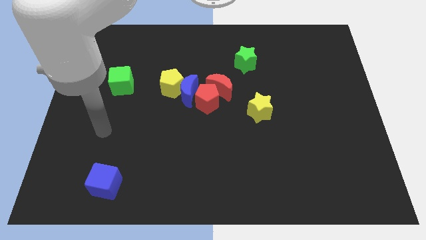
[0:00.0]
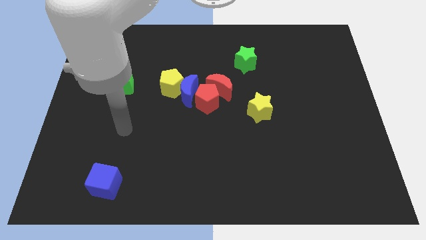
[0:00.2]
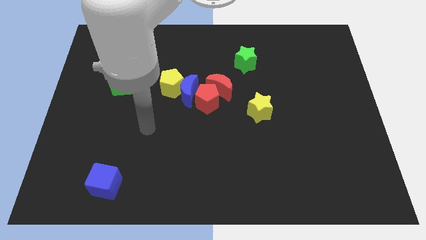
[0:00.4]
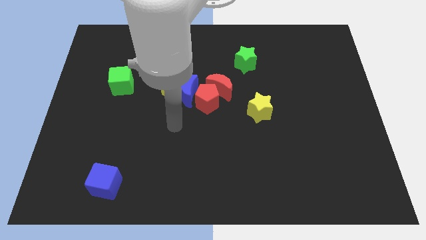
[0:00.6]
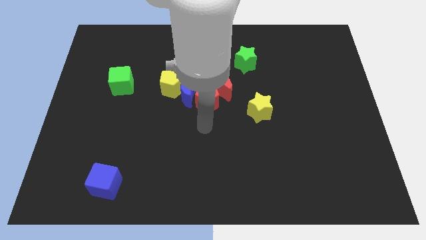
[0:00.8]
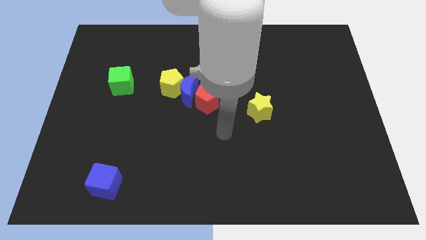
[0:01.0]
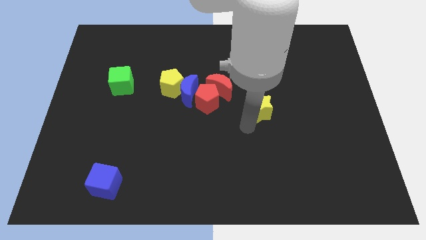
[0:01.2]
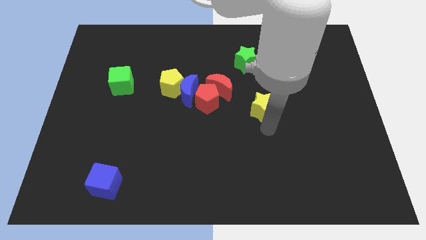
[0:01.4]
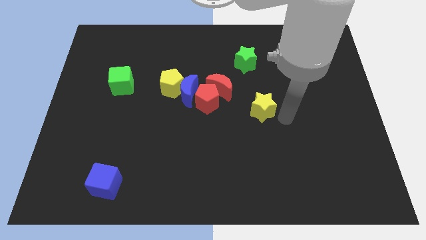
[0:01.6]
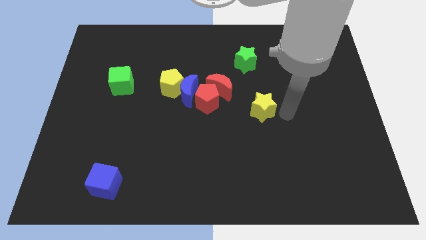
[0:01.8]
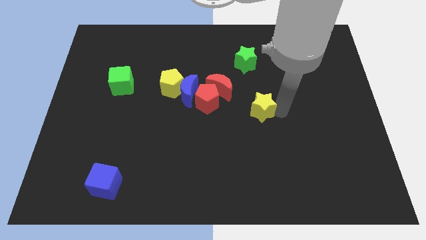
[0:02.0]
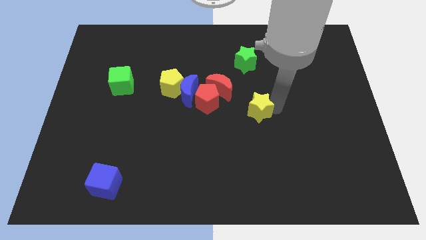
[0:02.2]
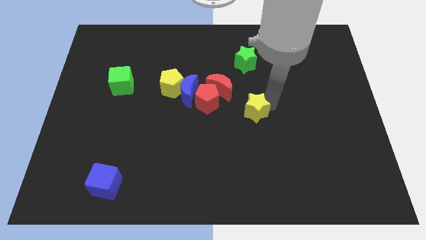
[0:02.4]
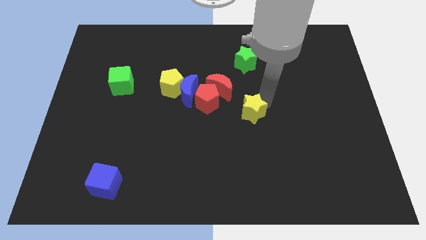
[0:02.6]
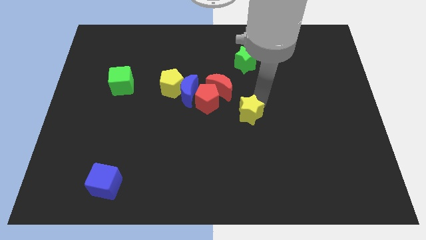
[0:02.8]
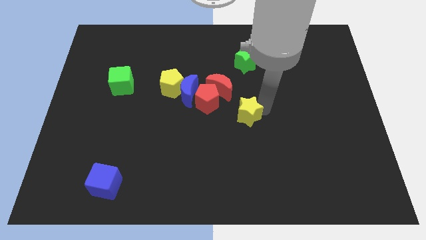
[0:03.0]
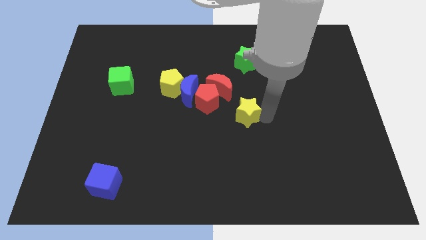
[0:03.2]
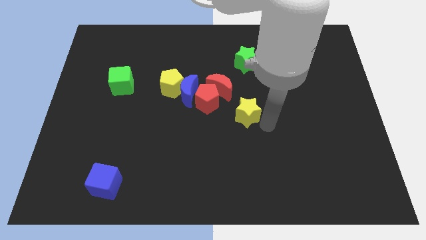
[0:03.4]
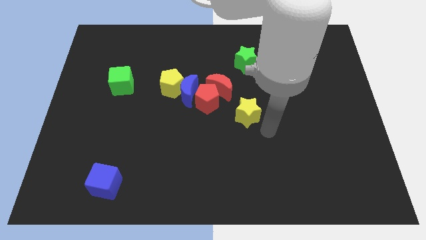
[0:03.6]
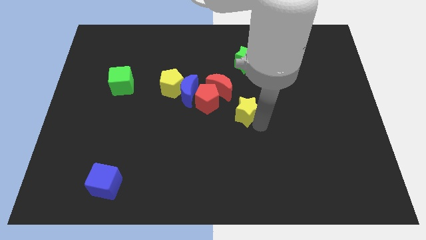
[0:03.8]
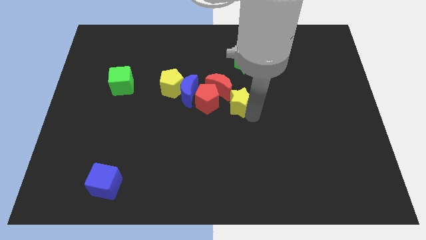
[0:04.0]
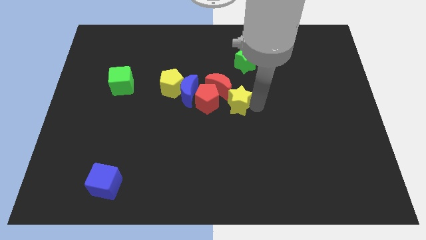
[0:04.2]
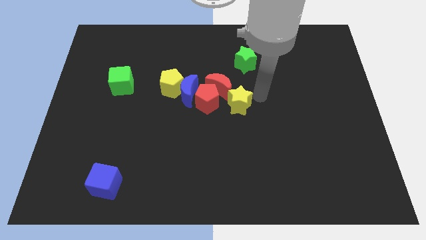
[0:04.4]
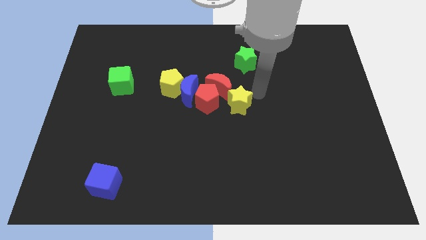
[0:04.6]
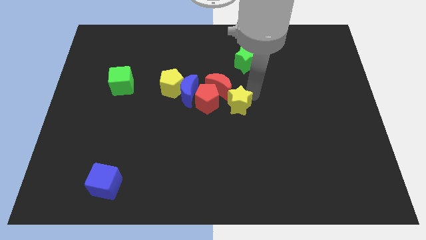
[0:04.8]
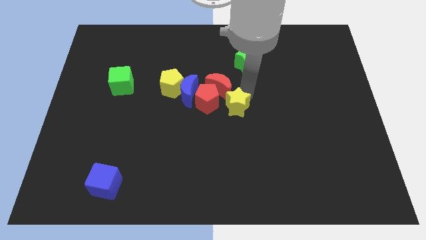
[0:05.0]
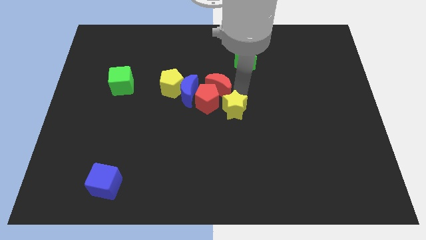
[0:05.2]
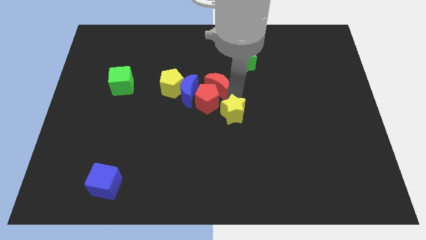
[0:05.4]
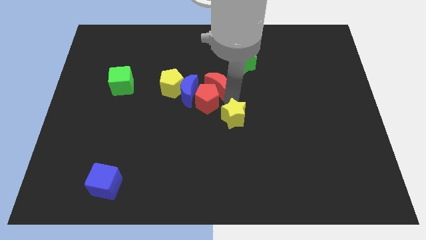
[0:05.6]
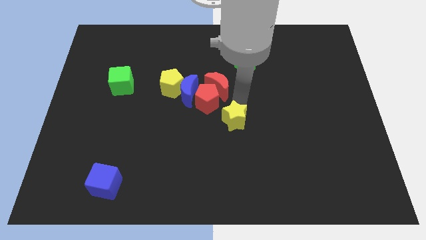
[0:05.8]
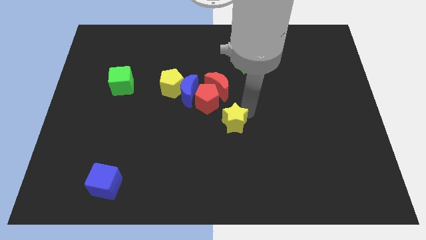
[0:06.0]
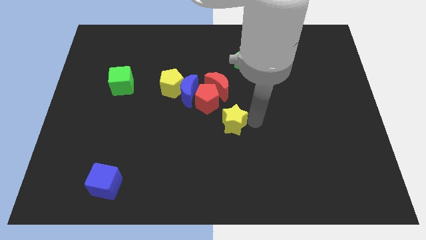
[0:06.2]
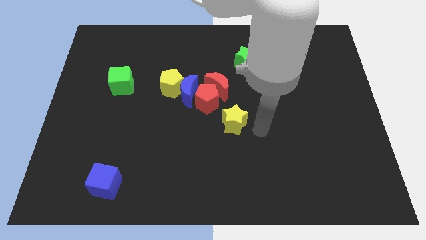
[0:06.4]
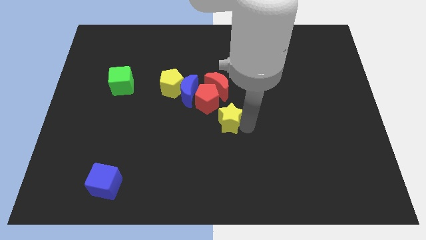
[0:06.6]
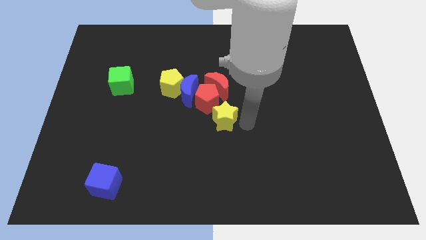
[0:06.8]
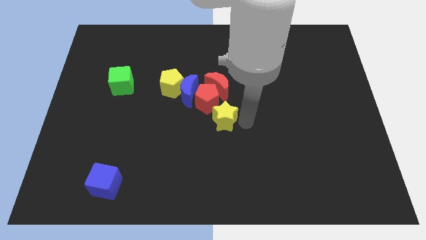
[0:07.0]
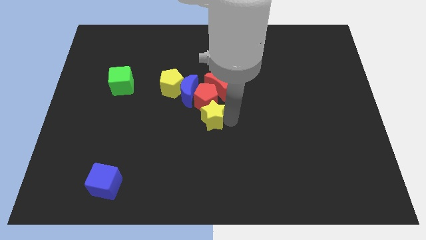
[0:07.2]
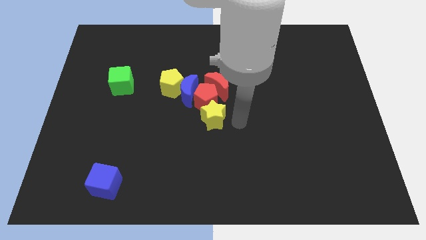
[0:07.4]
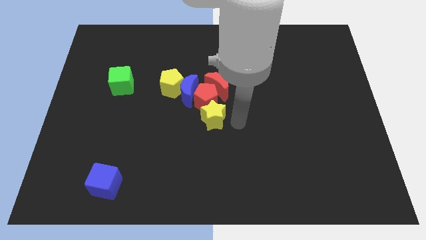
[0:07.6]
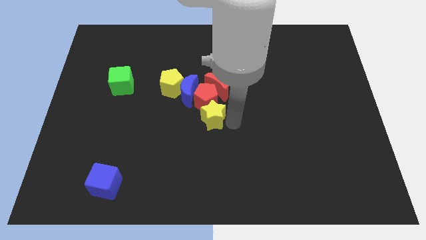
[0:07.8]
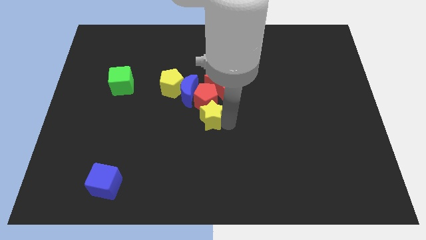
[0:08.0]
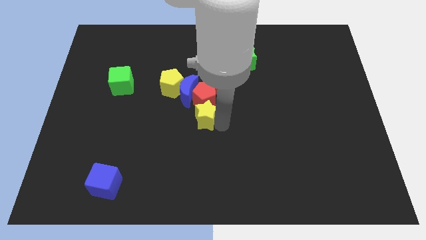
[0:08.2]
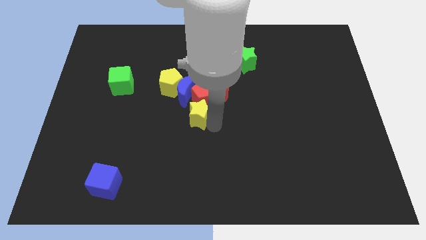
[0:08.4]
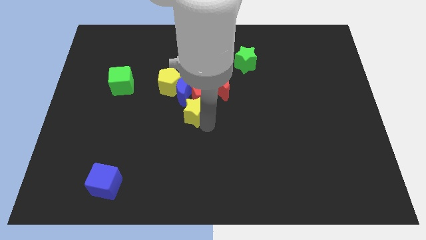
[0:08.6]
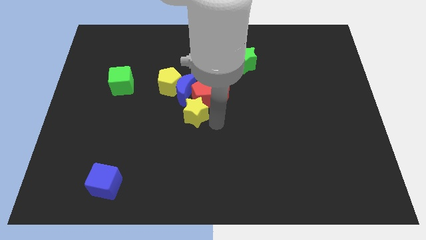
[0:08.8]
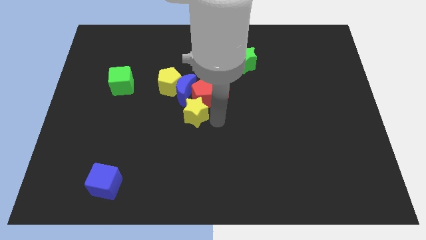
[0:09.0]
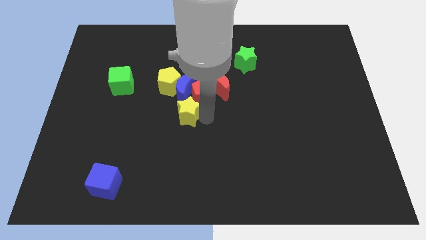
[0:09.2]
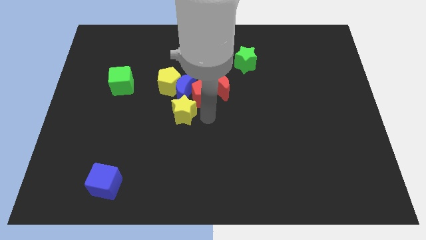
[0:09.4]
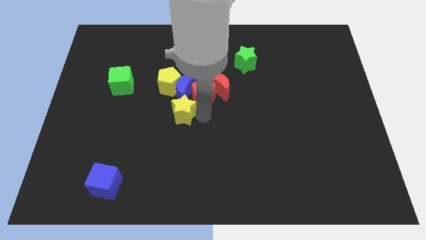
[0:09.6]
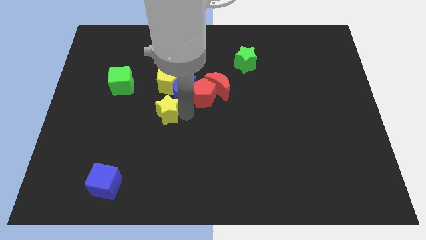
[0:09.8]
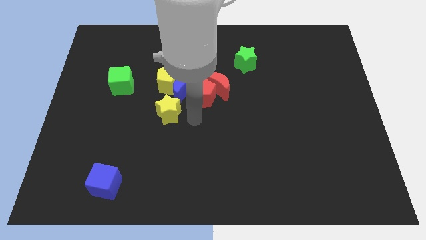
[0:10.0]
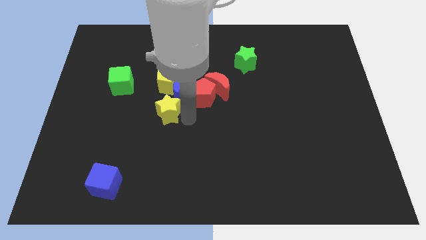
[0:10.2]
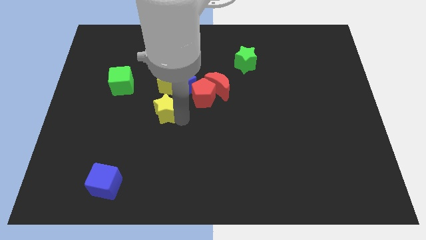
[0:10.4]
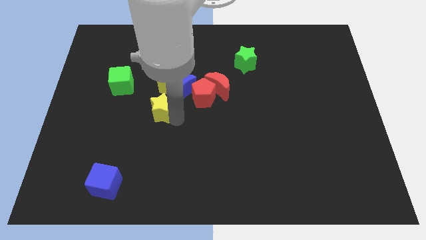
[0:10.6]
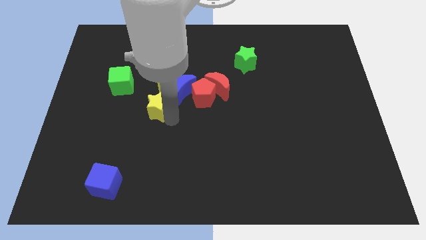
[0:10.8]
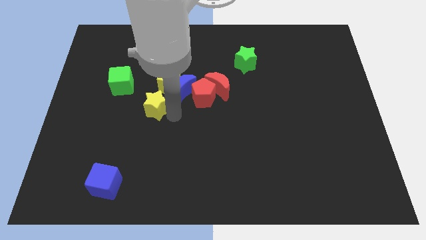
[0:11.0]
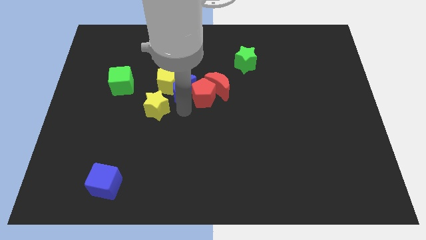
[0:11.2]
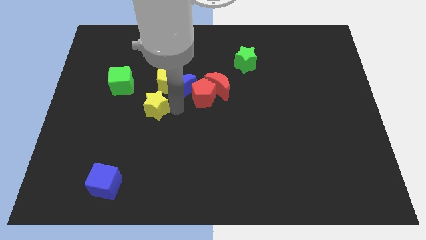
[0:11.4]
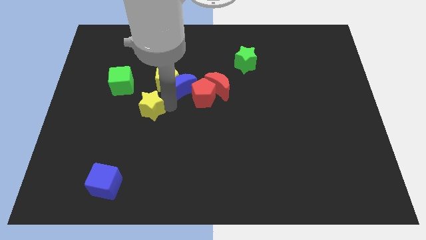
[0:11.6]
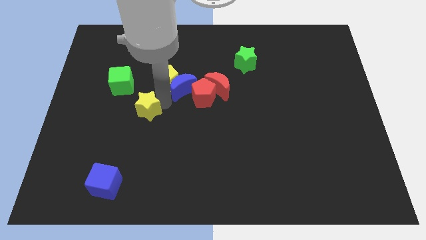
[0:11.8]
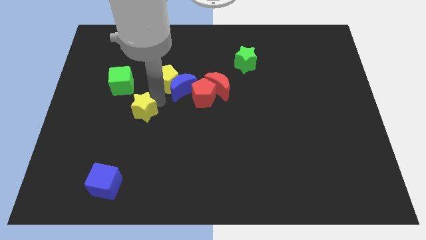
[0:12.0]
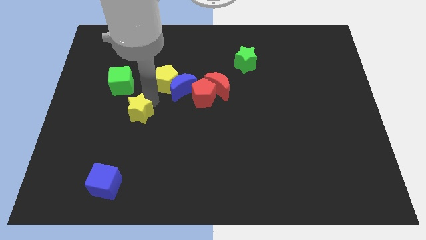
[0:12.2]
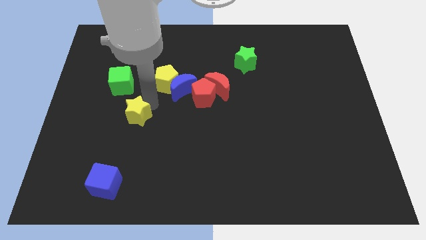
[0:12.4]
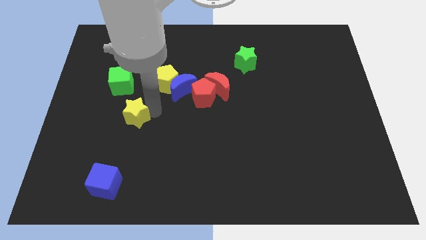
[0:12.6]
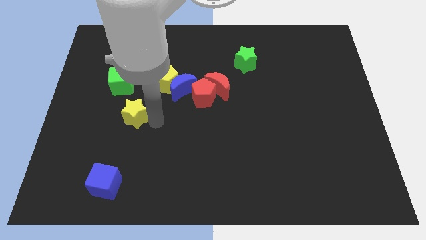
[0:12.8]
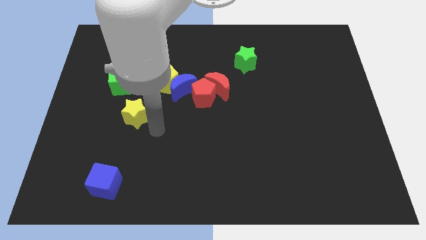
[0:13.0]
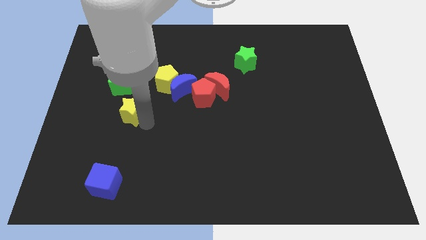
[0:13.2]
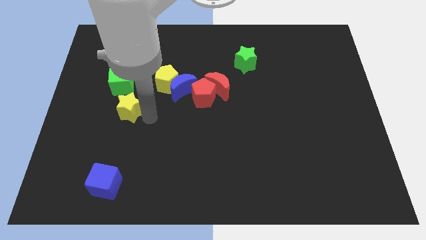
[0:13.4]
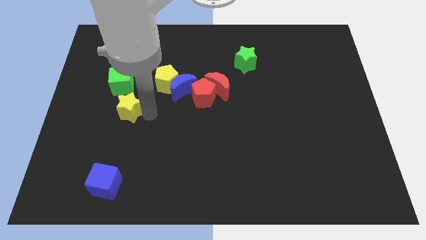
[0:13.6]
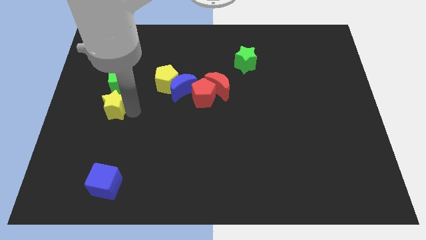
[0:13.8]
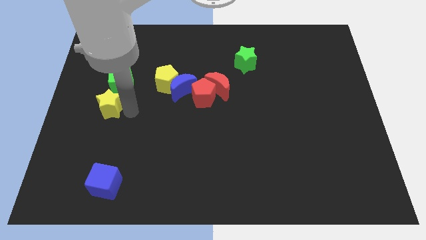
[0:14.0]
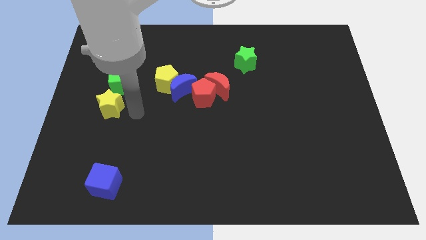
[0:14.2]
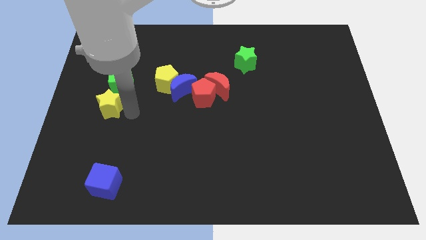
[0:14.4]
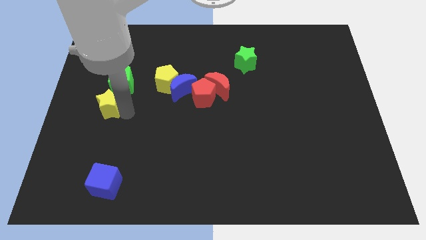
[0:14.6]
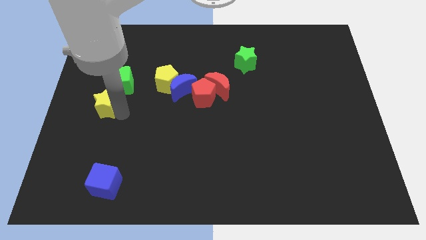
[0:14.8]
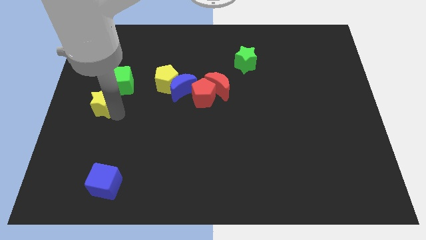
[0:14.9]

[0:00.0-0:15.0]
slide the yellow star to the left side of the board
